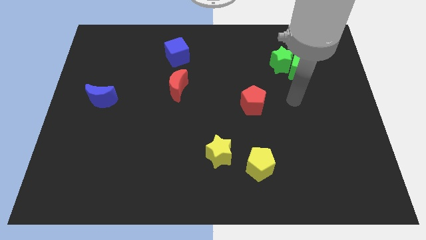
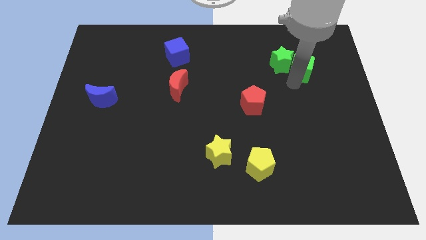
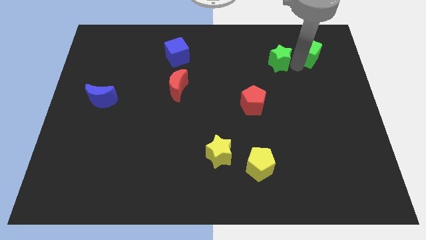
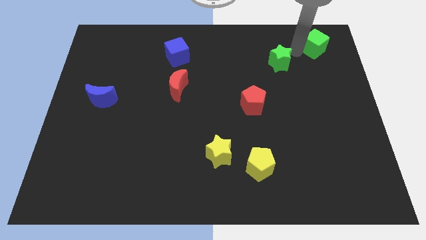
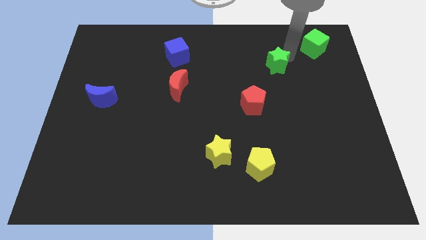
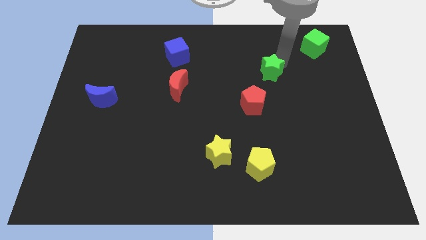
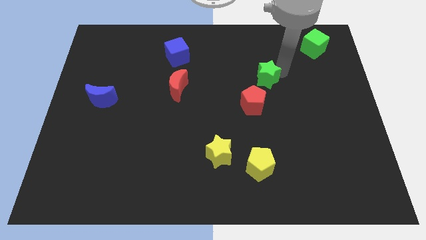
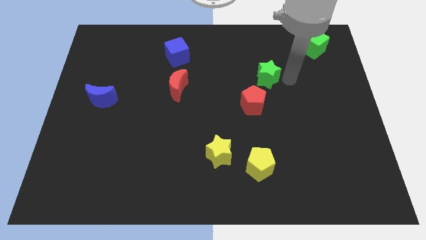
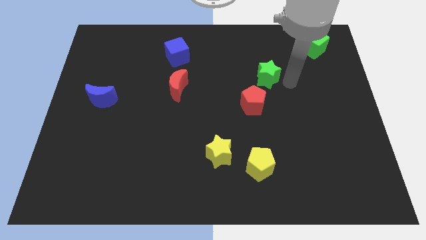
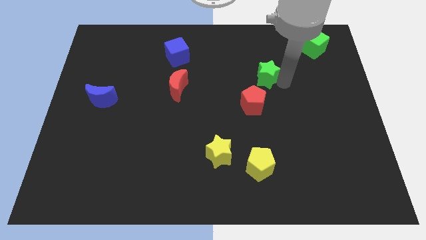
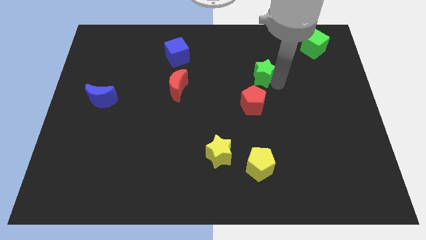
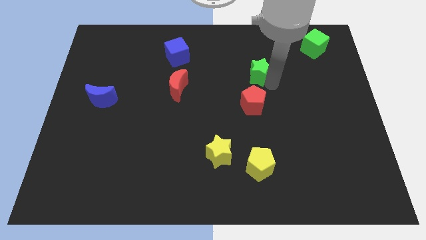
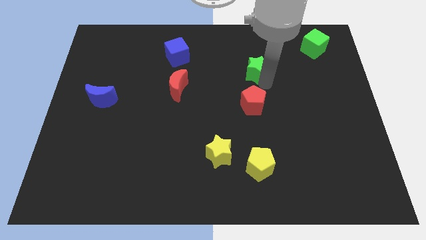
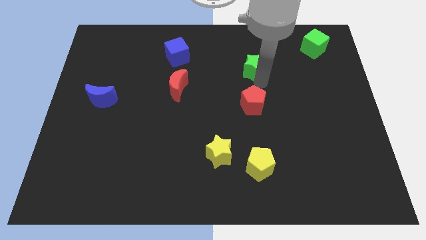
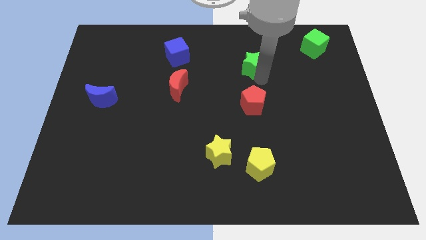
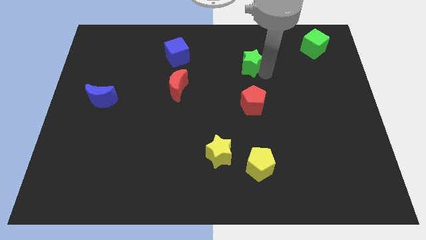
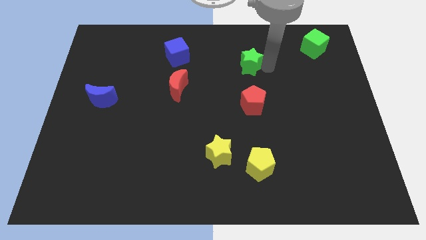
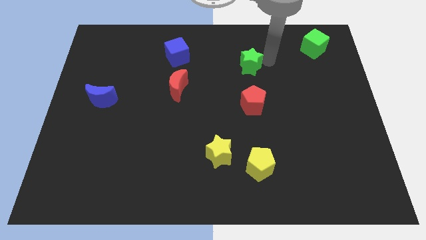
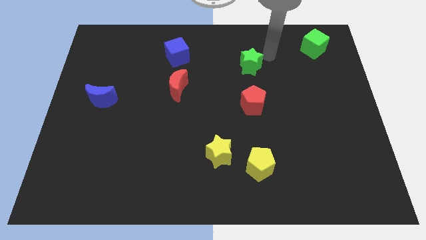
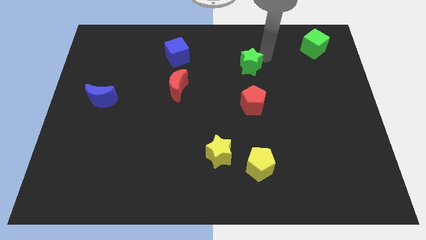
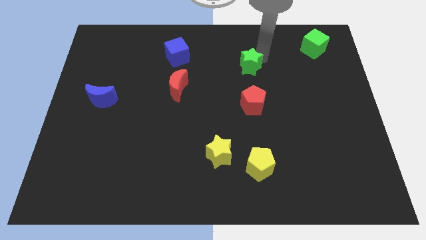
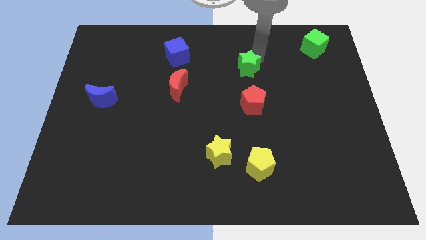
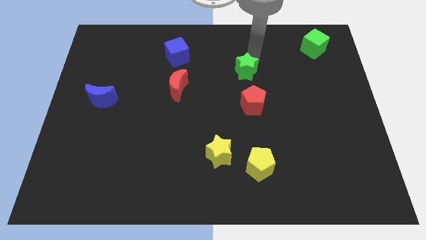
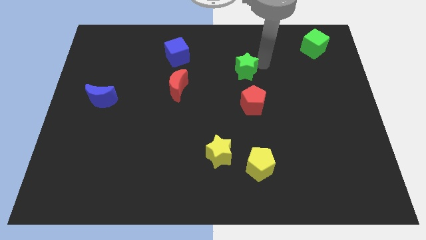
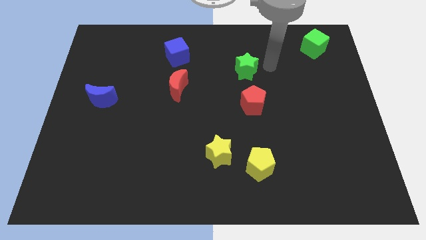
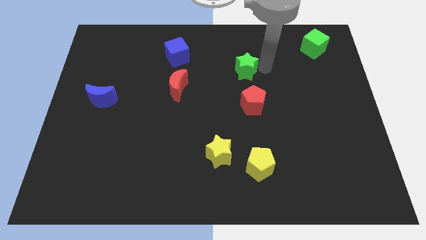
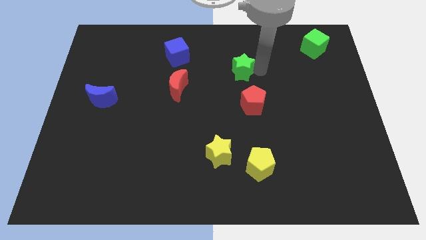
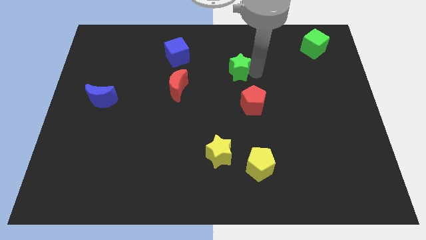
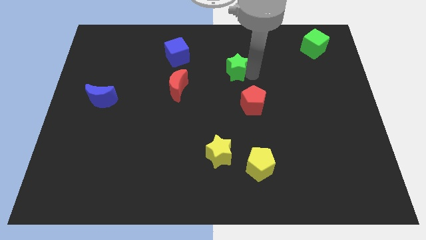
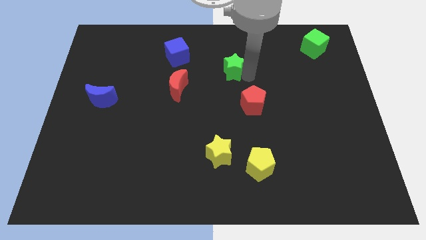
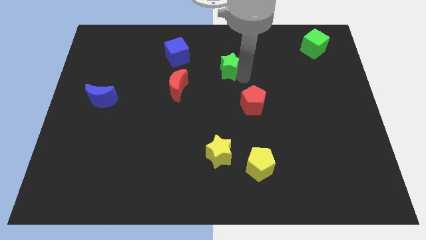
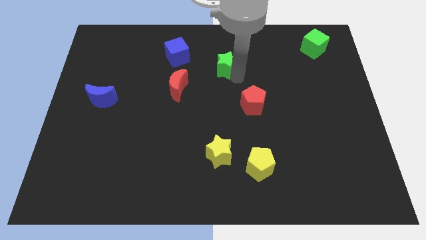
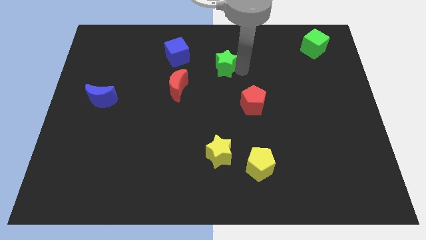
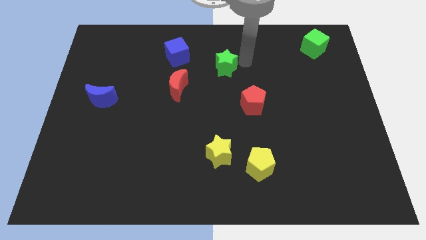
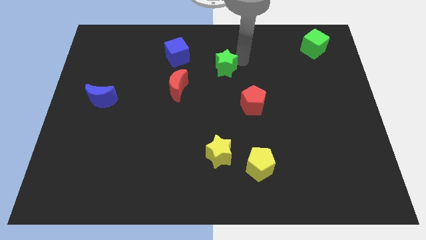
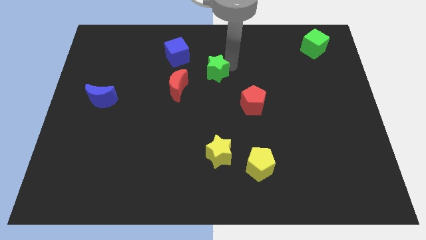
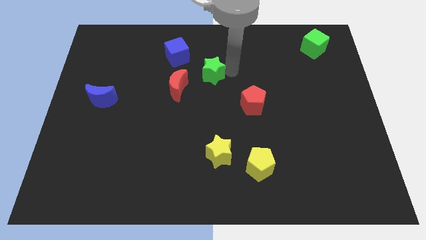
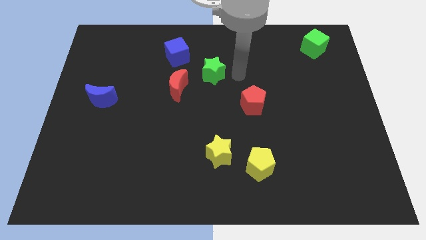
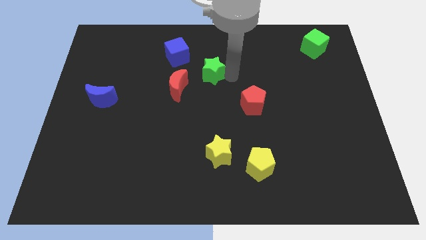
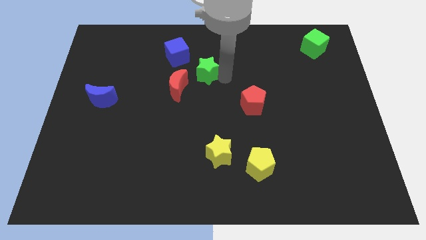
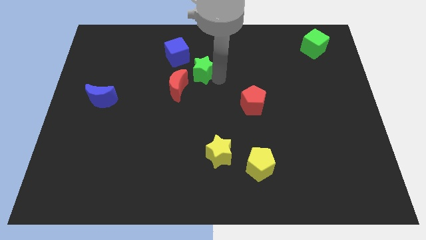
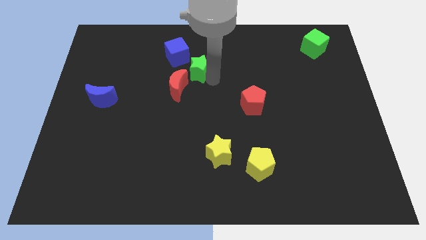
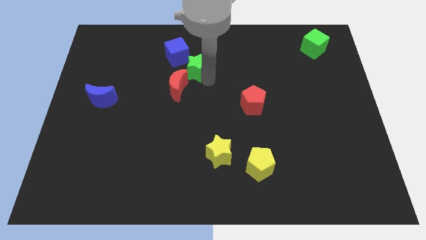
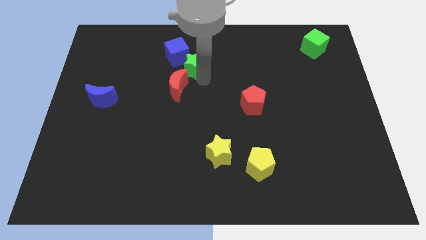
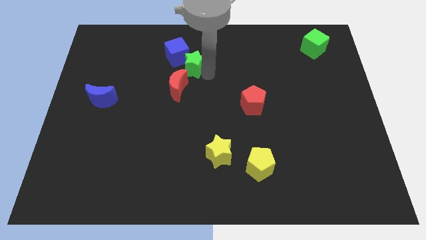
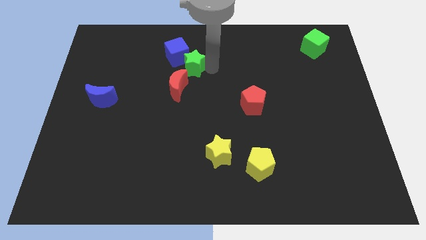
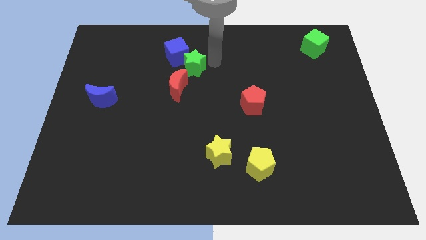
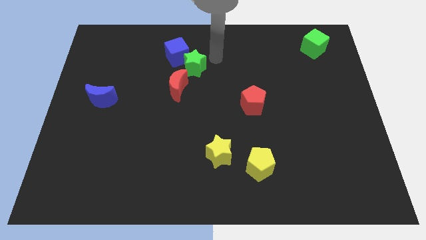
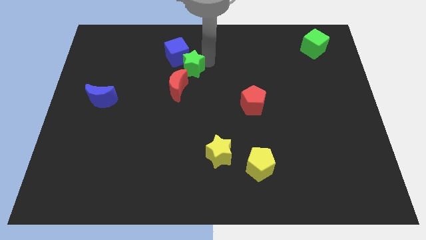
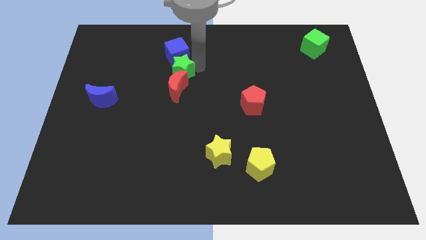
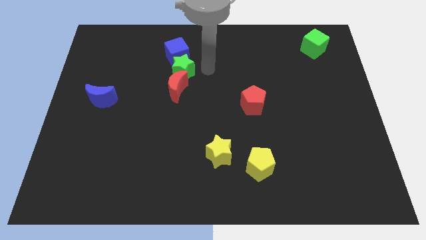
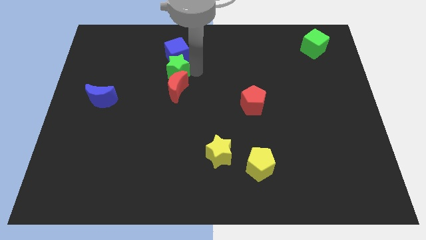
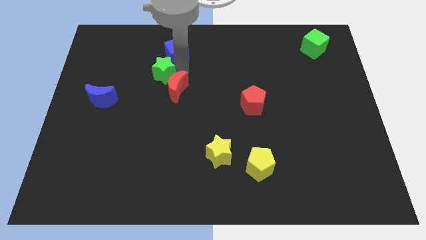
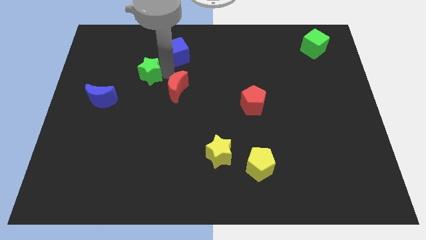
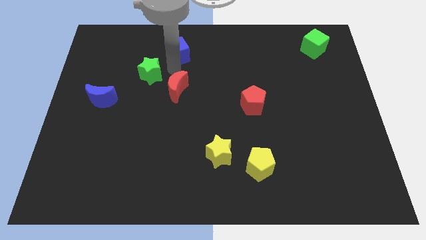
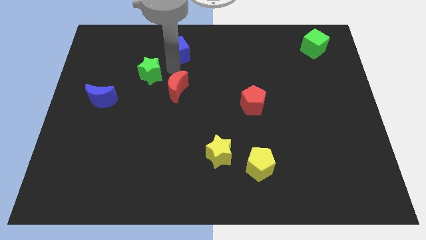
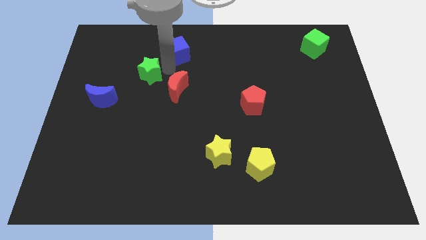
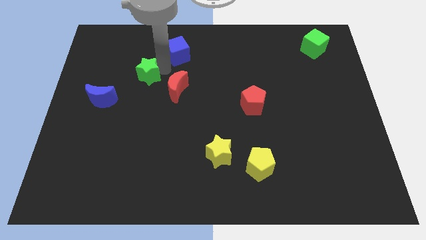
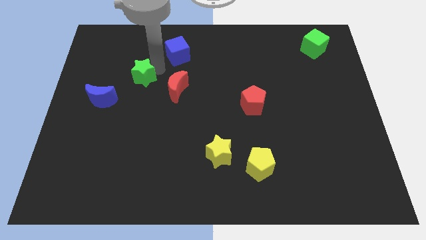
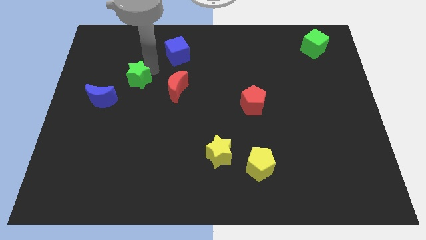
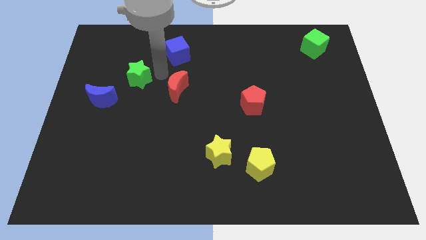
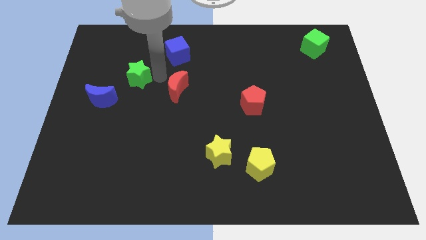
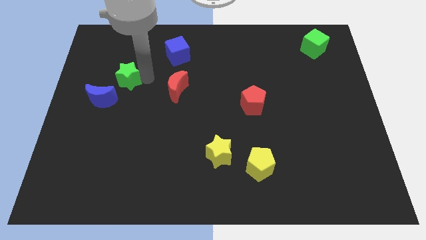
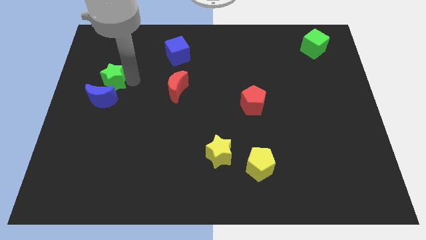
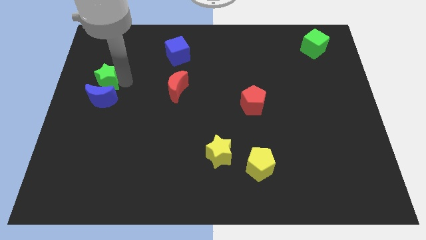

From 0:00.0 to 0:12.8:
push the green star to the left side of the board

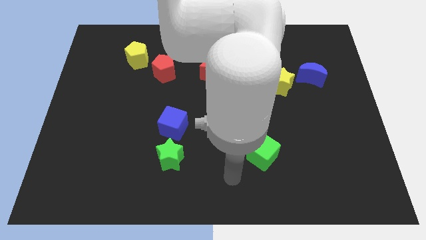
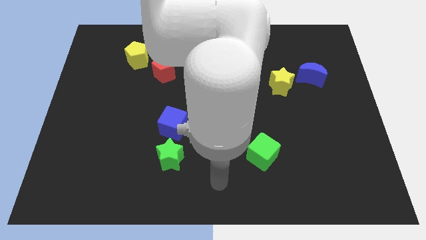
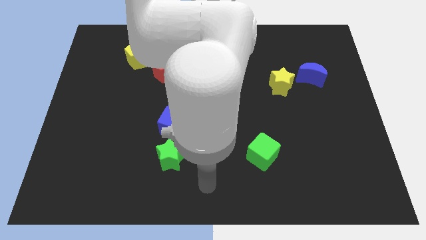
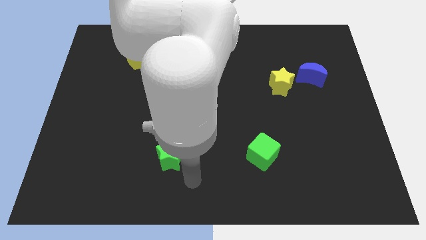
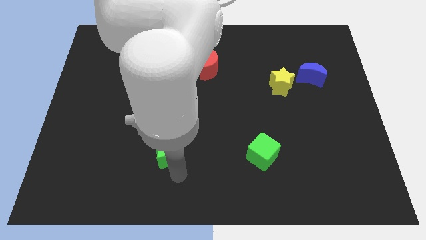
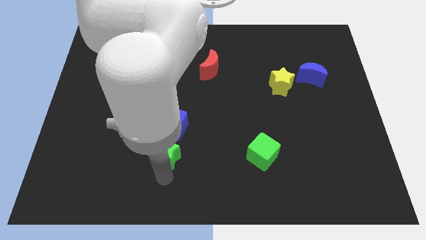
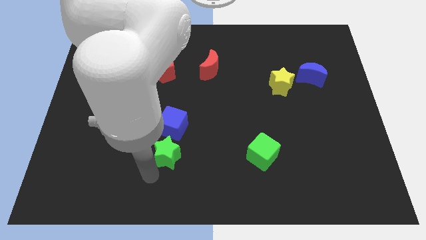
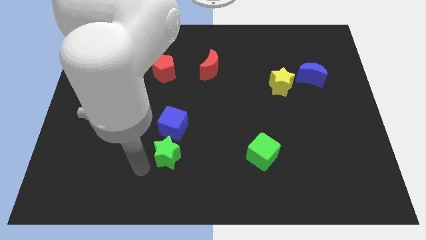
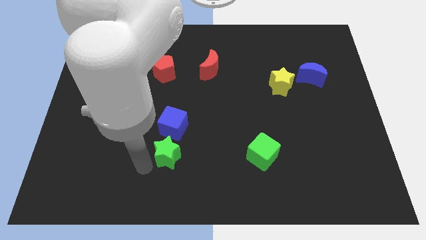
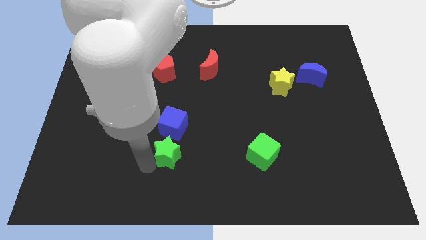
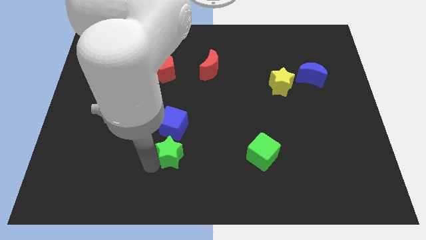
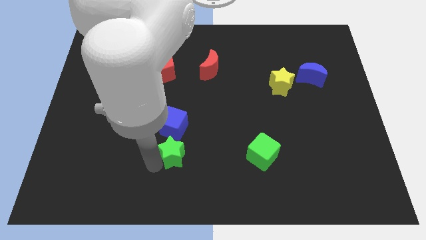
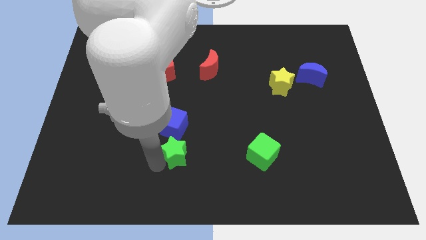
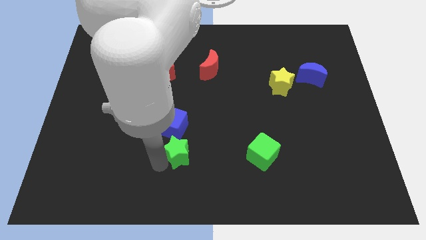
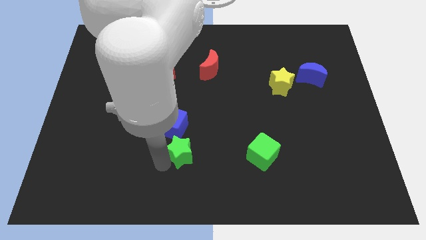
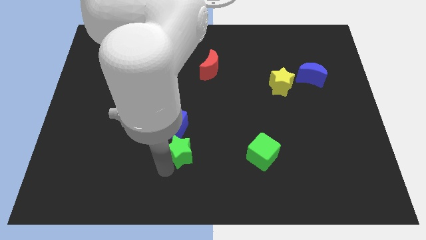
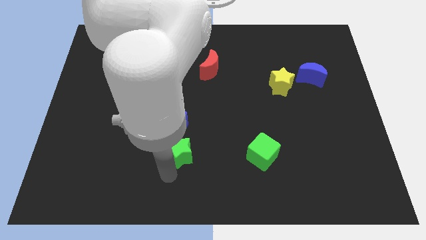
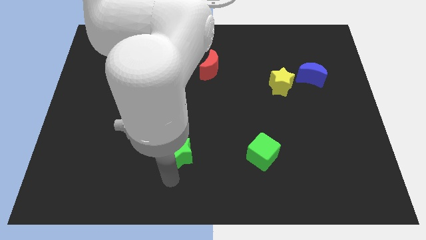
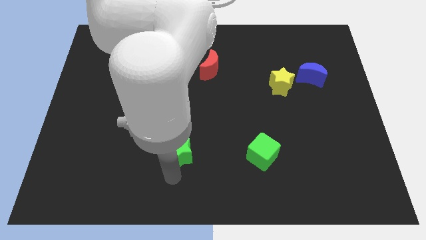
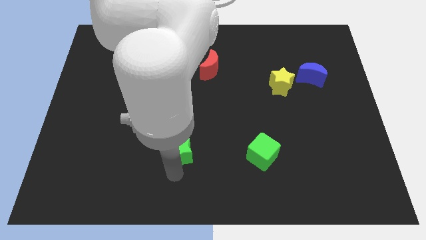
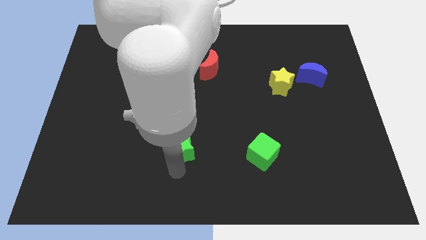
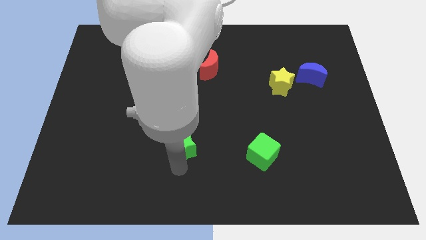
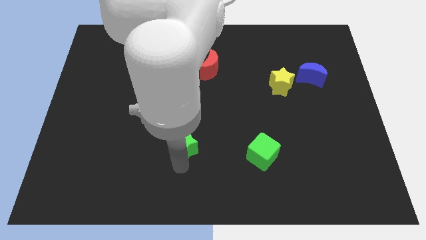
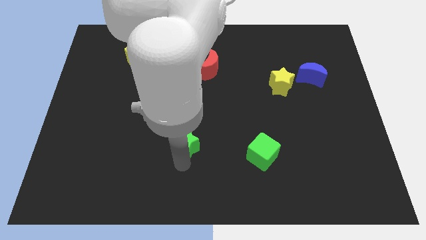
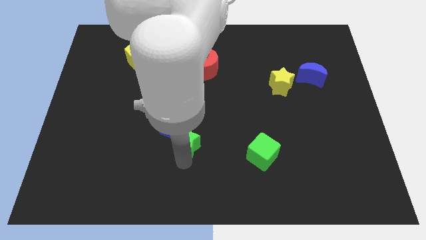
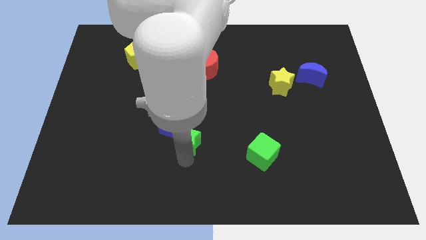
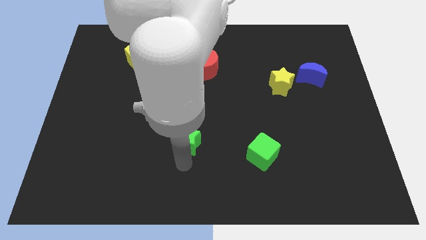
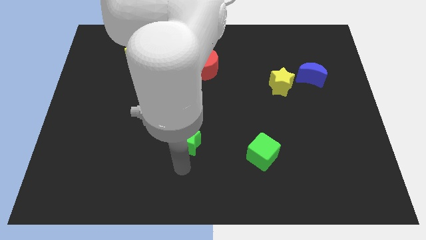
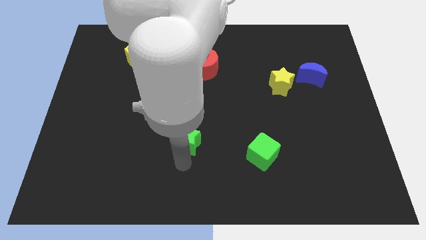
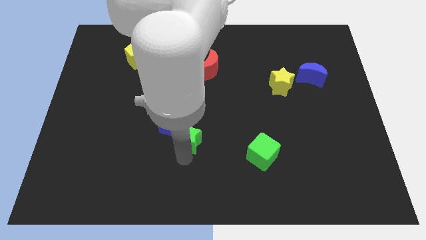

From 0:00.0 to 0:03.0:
put the green star to the center
